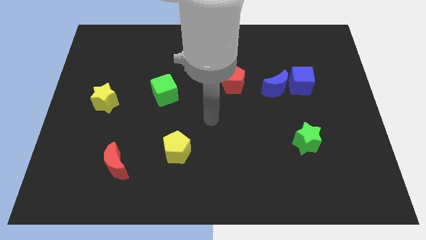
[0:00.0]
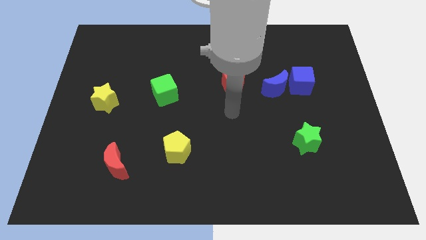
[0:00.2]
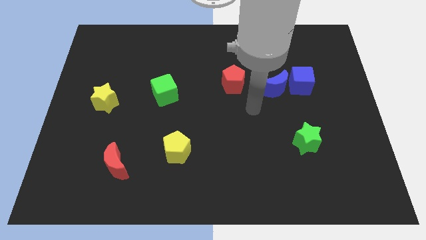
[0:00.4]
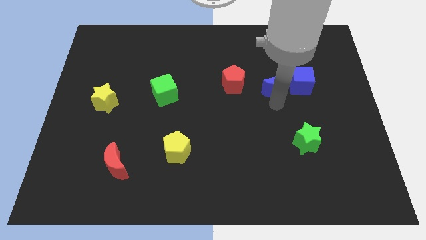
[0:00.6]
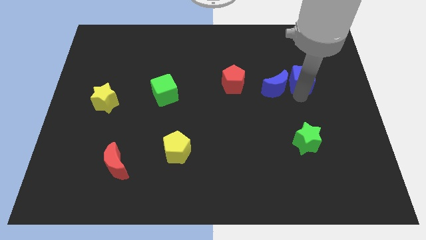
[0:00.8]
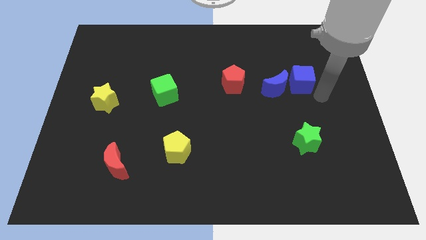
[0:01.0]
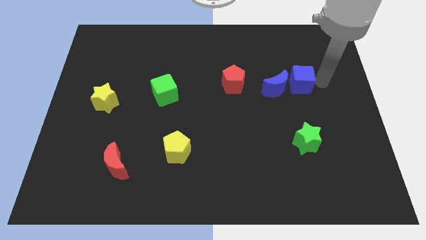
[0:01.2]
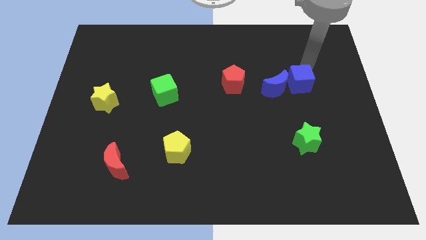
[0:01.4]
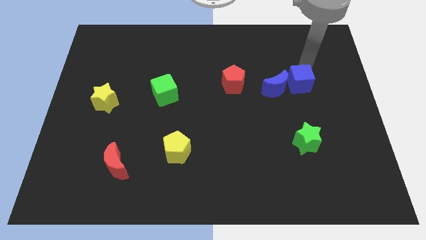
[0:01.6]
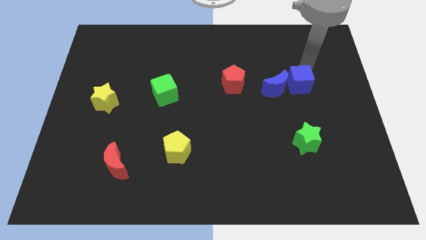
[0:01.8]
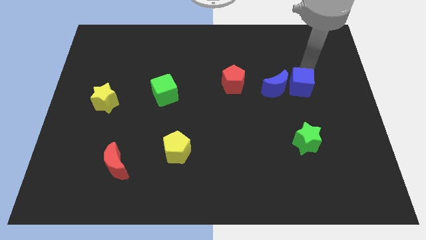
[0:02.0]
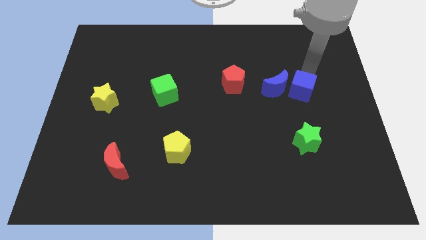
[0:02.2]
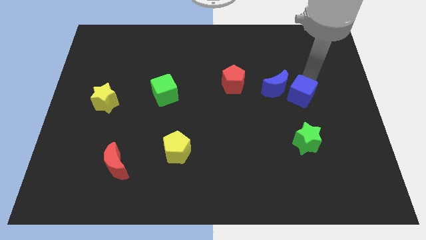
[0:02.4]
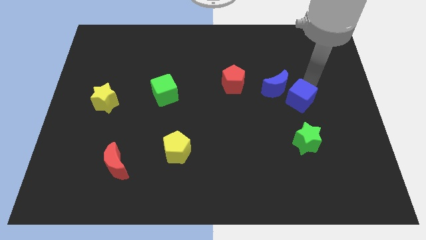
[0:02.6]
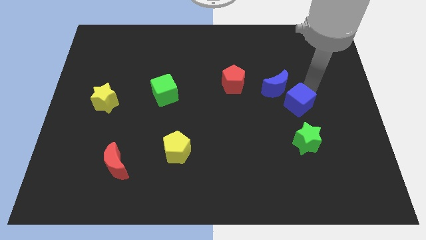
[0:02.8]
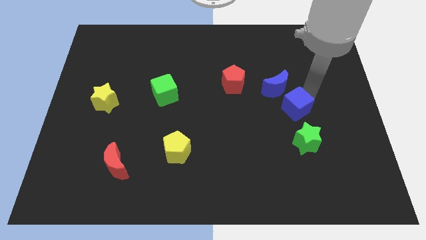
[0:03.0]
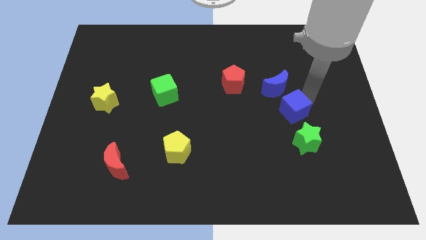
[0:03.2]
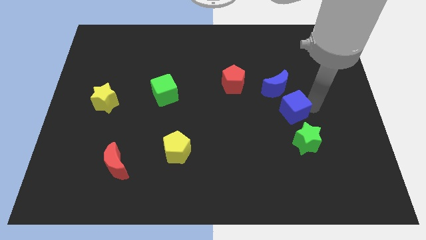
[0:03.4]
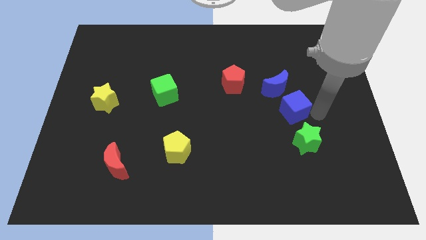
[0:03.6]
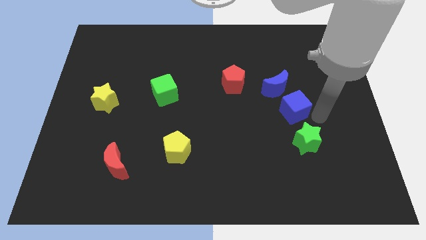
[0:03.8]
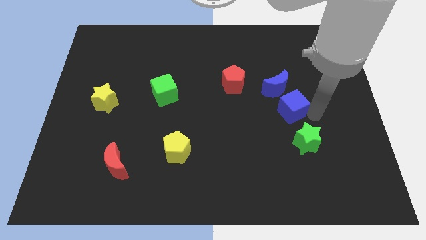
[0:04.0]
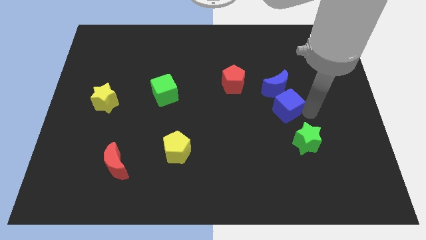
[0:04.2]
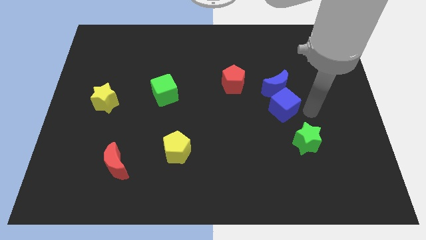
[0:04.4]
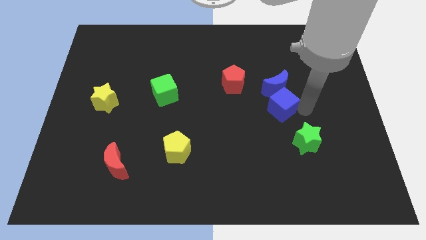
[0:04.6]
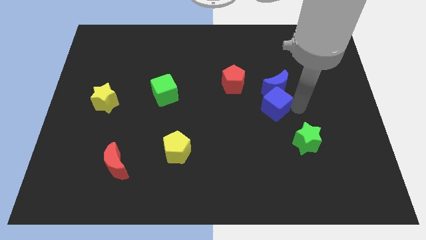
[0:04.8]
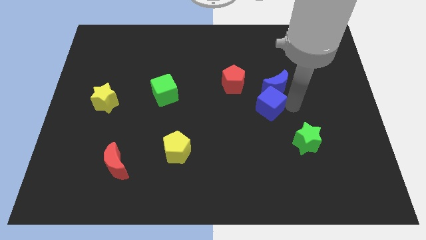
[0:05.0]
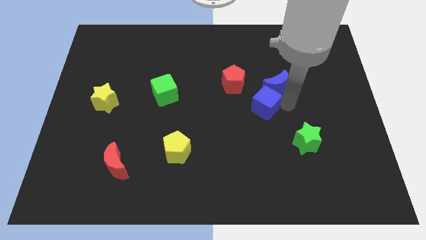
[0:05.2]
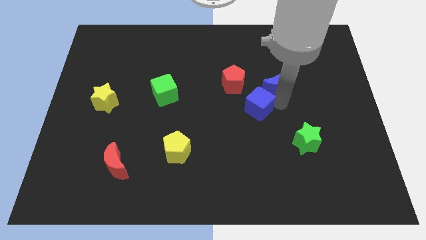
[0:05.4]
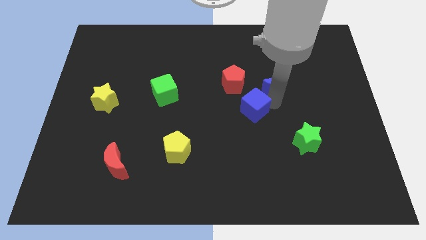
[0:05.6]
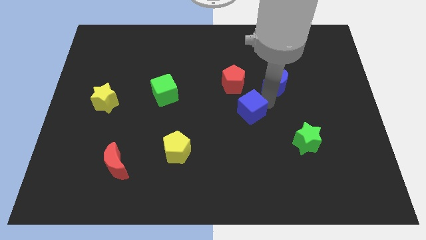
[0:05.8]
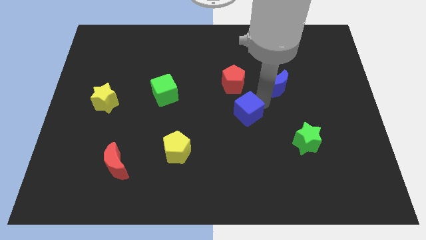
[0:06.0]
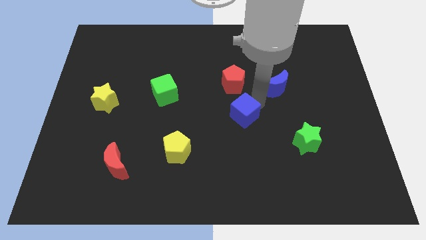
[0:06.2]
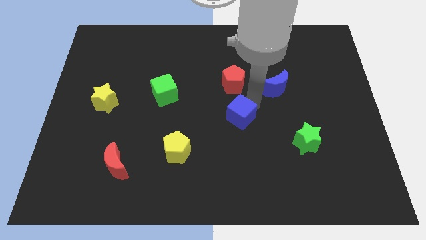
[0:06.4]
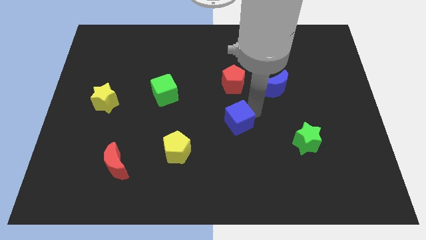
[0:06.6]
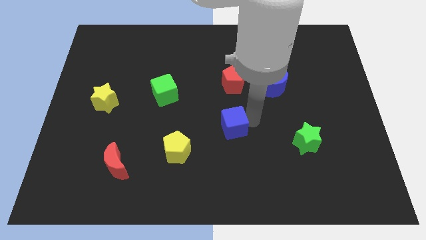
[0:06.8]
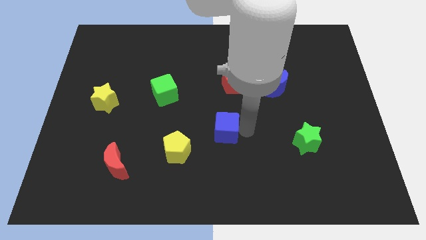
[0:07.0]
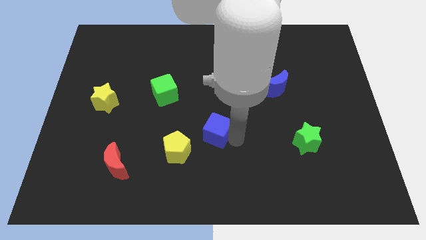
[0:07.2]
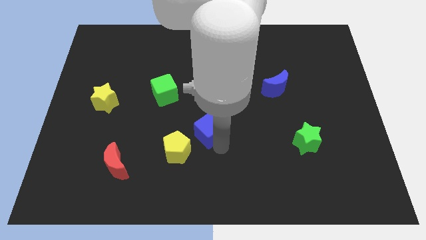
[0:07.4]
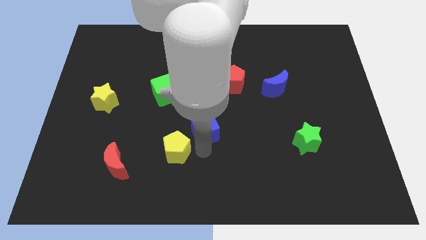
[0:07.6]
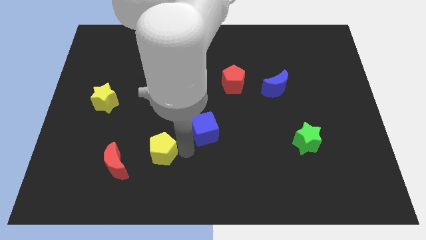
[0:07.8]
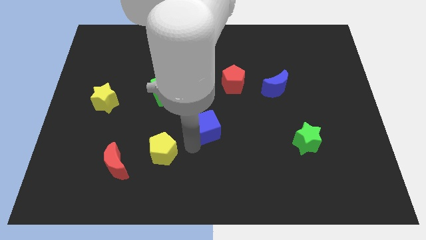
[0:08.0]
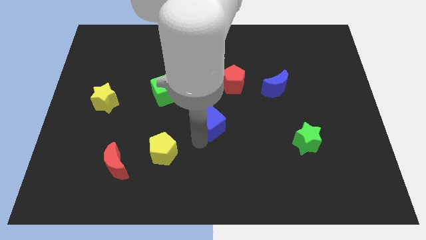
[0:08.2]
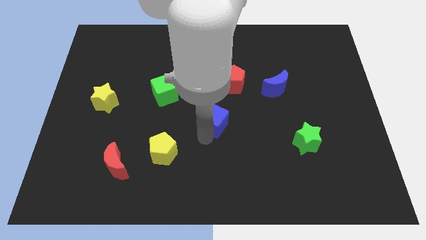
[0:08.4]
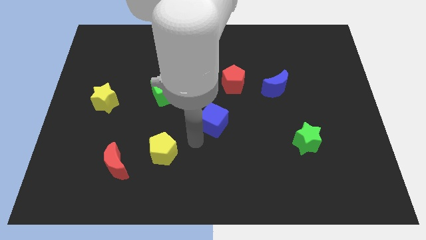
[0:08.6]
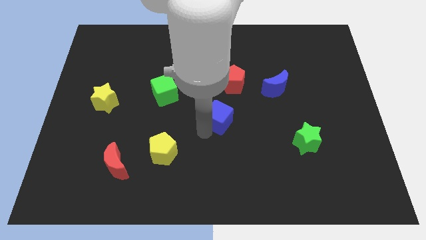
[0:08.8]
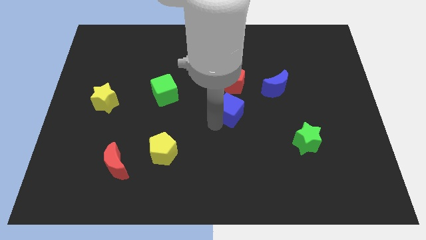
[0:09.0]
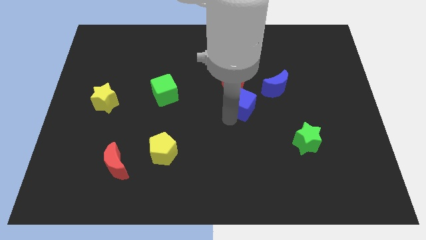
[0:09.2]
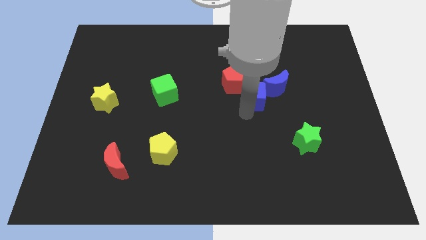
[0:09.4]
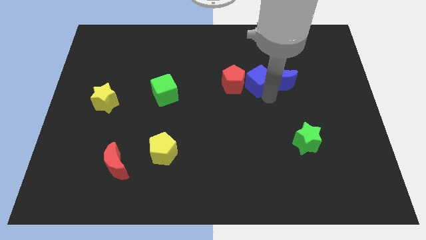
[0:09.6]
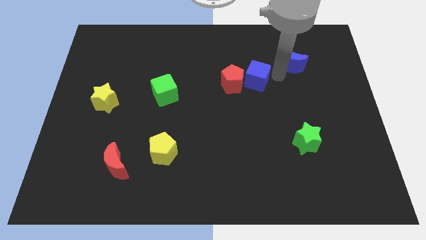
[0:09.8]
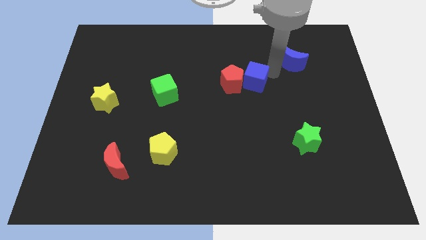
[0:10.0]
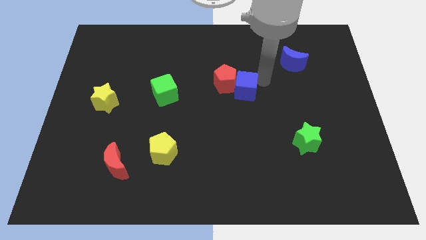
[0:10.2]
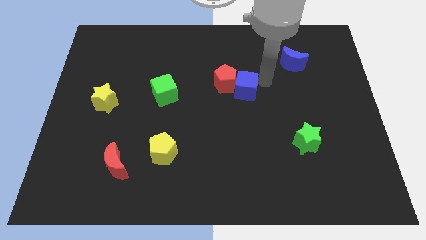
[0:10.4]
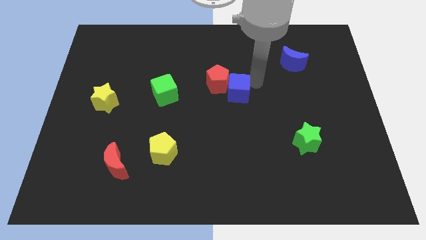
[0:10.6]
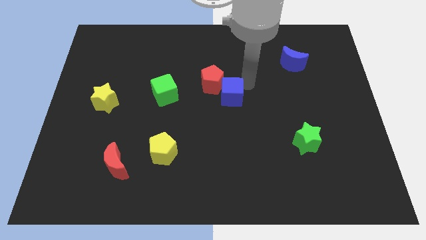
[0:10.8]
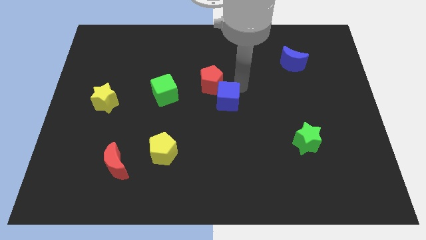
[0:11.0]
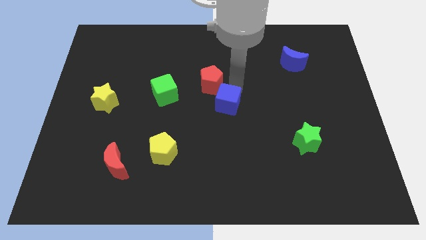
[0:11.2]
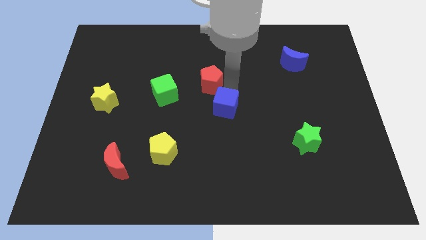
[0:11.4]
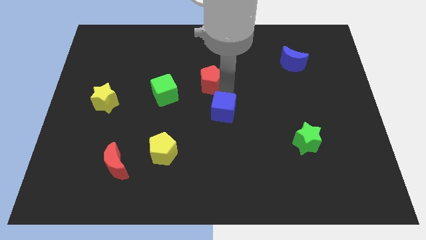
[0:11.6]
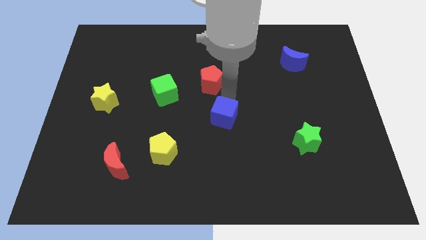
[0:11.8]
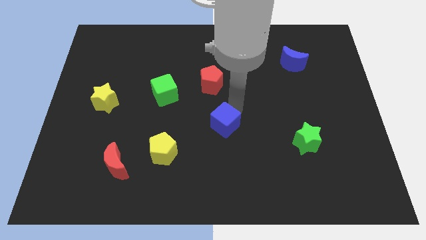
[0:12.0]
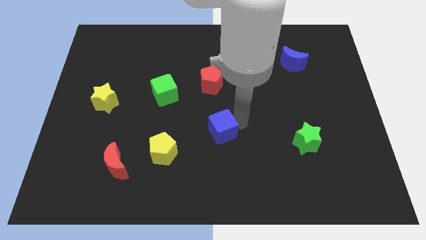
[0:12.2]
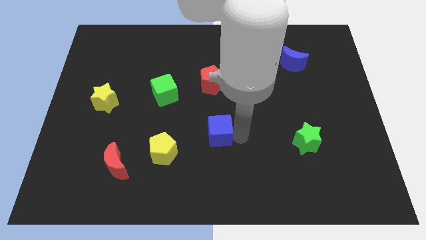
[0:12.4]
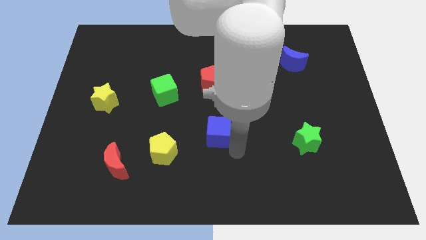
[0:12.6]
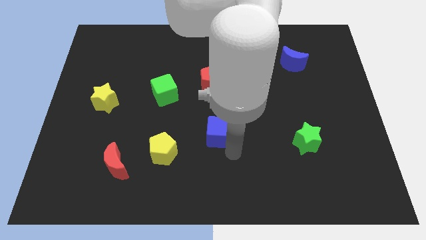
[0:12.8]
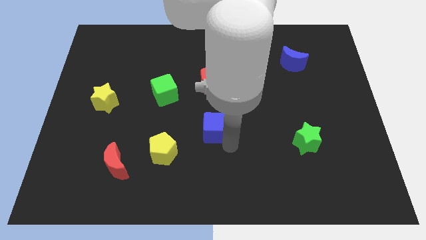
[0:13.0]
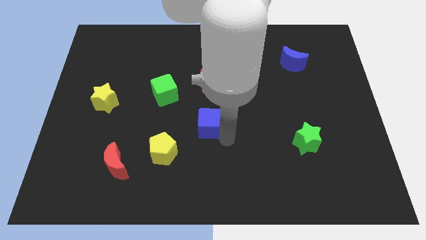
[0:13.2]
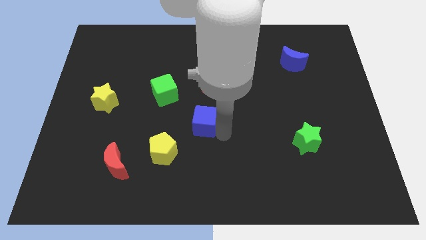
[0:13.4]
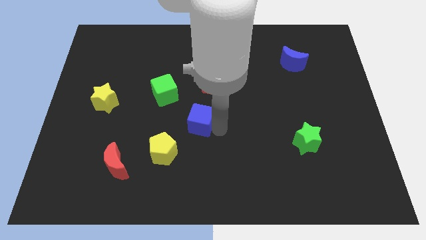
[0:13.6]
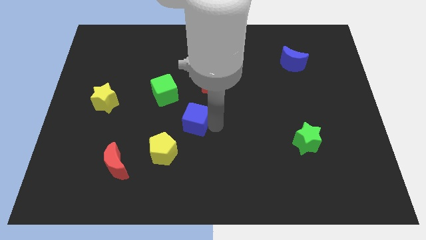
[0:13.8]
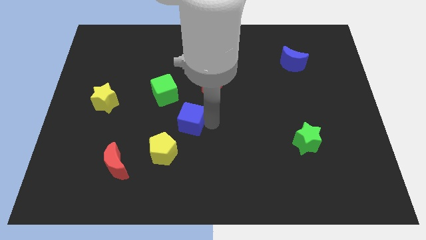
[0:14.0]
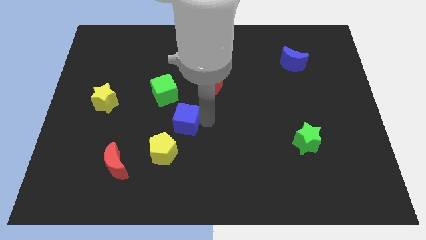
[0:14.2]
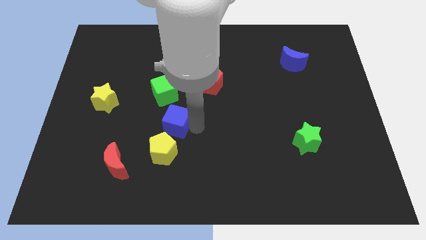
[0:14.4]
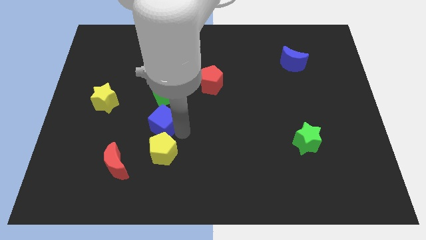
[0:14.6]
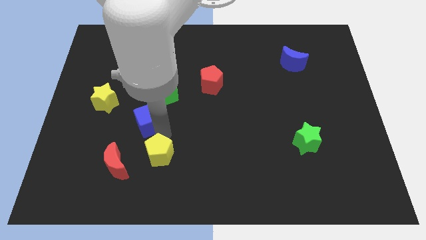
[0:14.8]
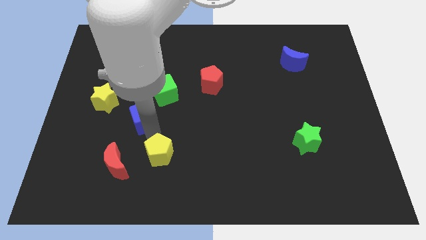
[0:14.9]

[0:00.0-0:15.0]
move the blue cube to the bottom right of the yellow star
